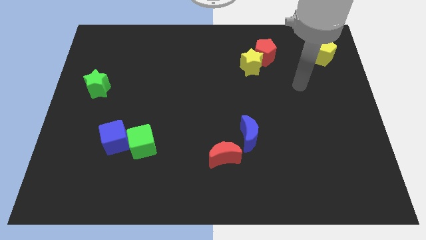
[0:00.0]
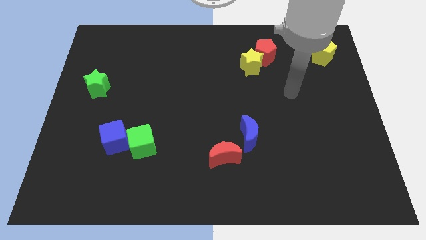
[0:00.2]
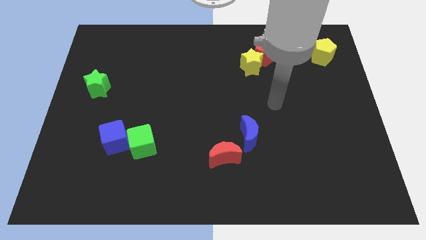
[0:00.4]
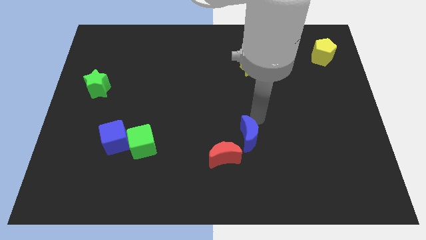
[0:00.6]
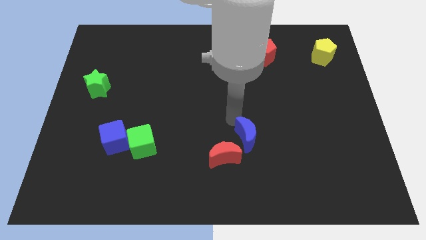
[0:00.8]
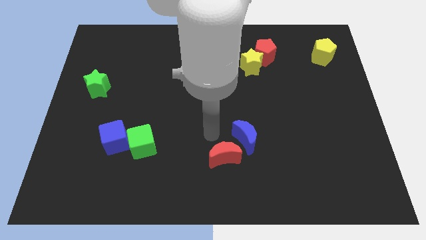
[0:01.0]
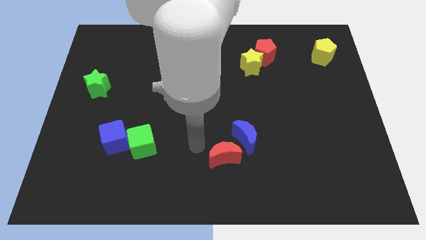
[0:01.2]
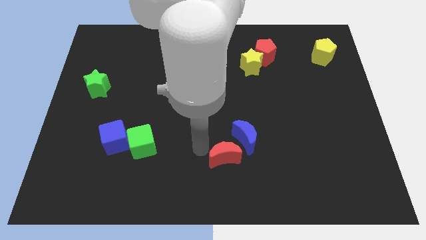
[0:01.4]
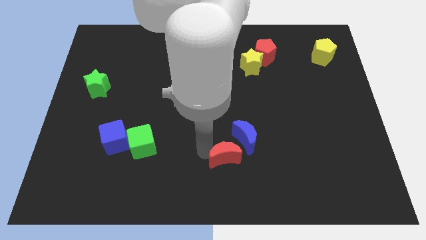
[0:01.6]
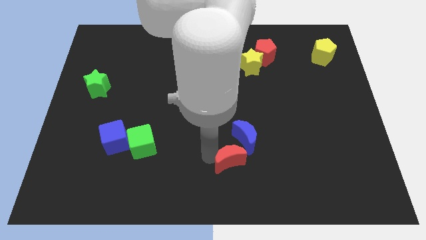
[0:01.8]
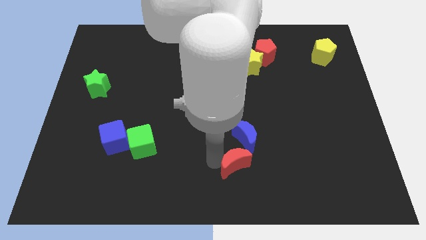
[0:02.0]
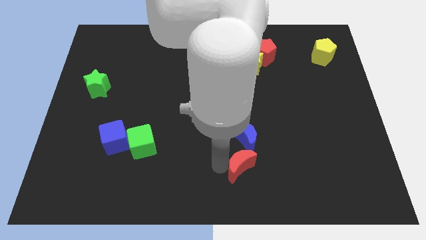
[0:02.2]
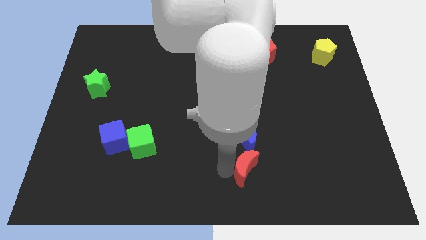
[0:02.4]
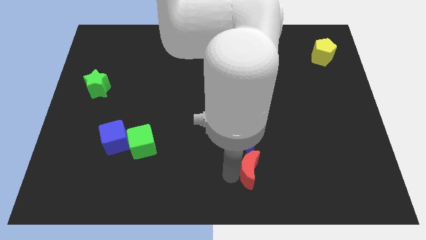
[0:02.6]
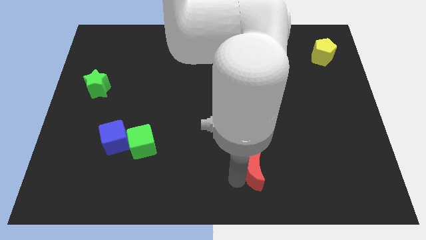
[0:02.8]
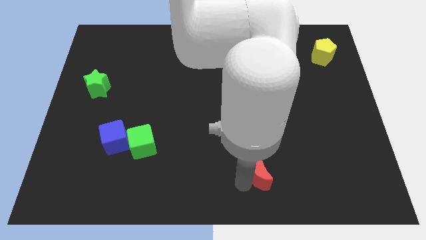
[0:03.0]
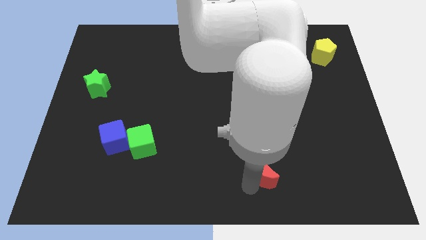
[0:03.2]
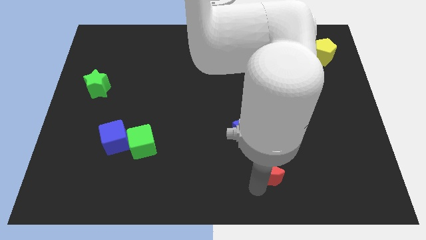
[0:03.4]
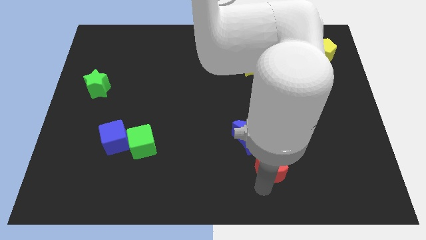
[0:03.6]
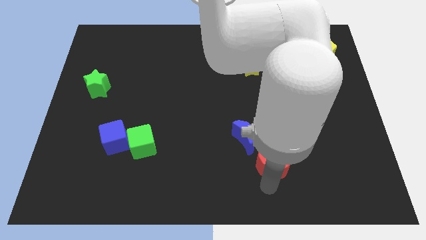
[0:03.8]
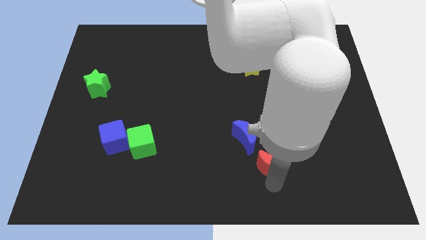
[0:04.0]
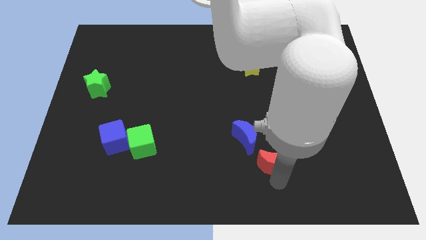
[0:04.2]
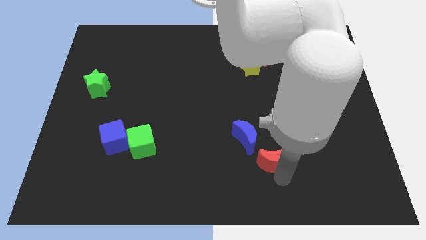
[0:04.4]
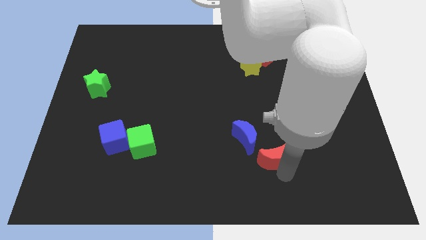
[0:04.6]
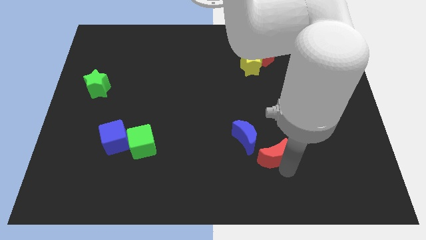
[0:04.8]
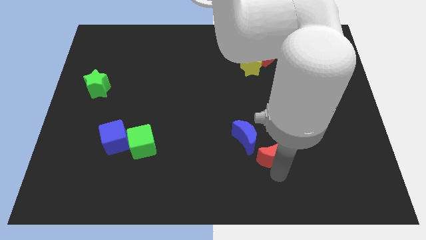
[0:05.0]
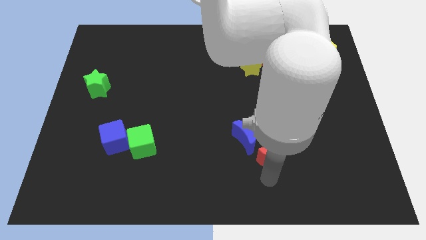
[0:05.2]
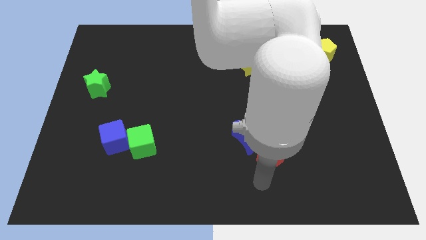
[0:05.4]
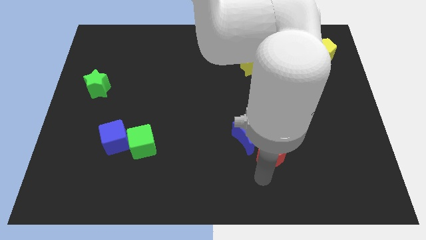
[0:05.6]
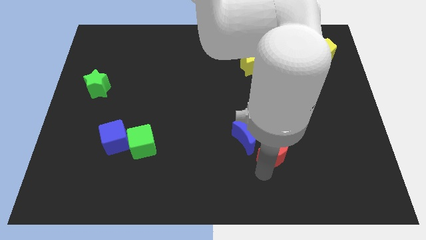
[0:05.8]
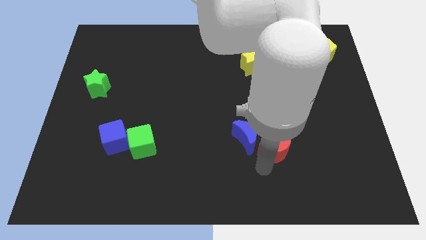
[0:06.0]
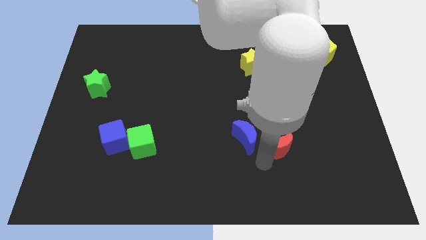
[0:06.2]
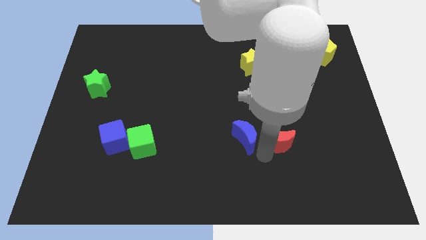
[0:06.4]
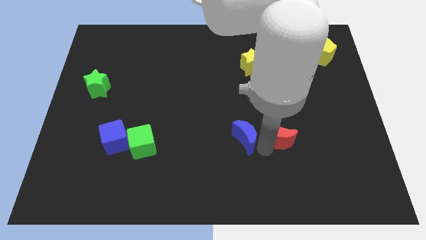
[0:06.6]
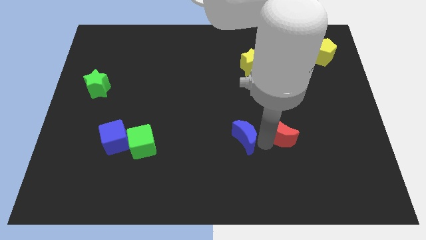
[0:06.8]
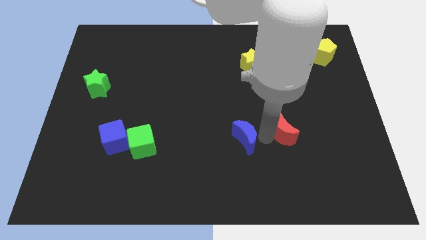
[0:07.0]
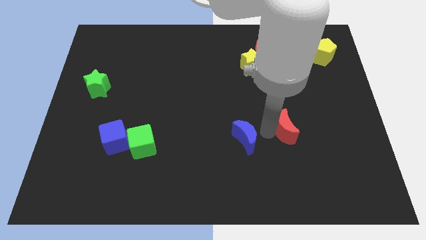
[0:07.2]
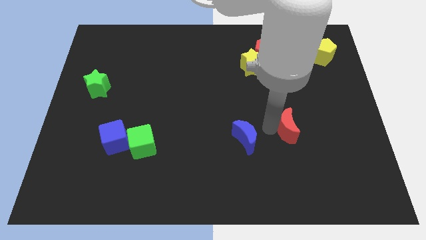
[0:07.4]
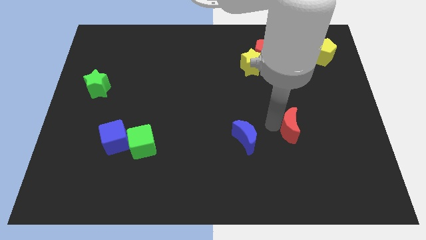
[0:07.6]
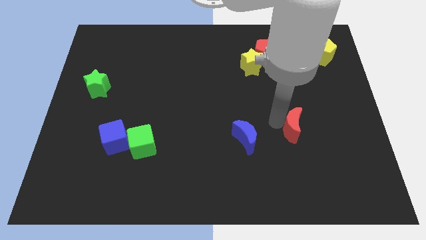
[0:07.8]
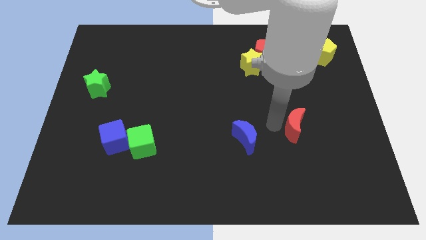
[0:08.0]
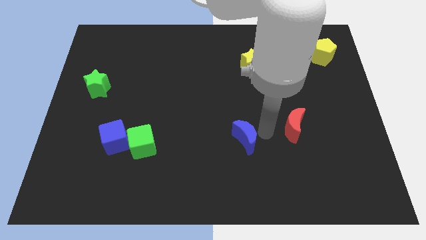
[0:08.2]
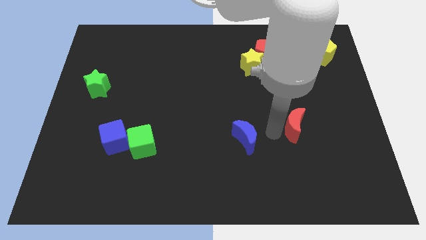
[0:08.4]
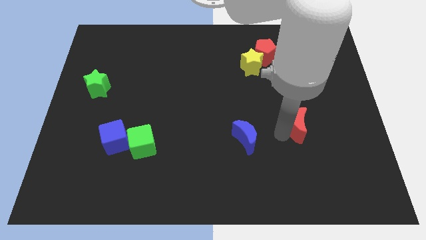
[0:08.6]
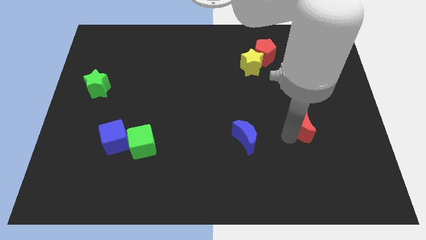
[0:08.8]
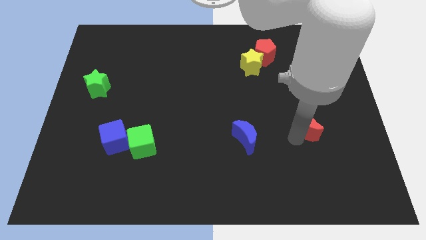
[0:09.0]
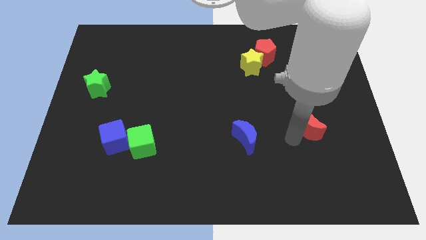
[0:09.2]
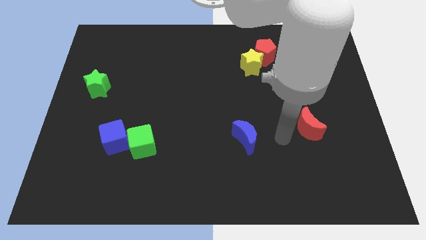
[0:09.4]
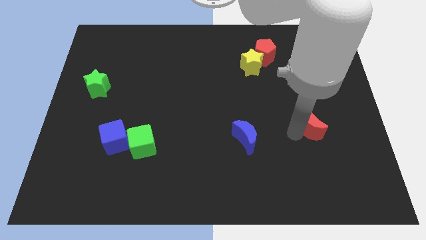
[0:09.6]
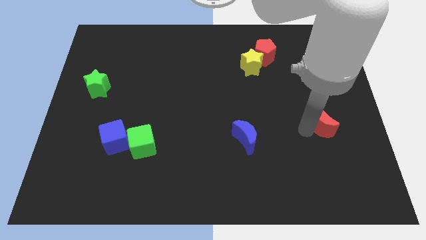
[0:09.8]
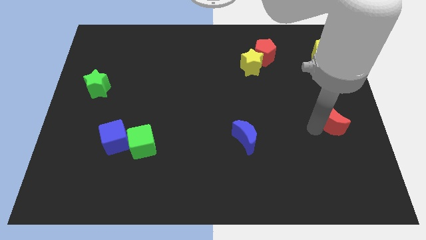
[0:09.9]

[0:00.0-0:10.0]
put the red moon to the right side of the board

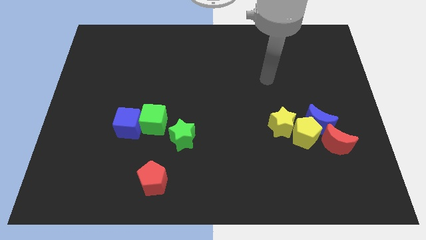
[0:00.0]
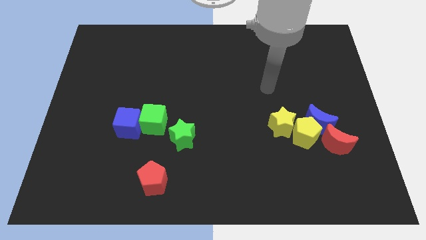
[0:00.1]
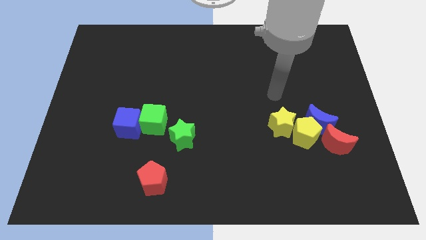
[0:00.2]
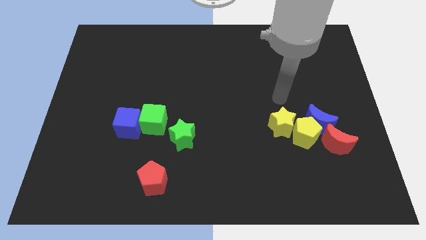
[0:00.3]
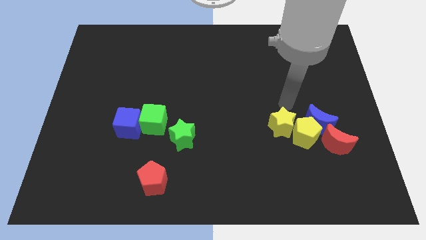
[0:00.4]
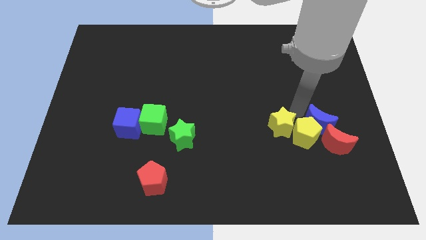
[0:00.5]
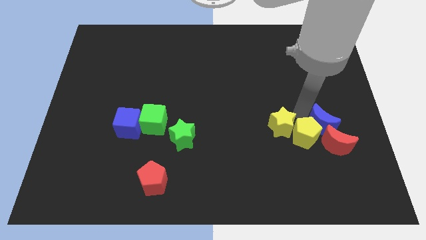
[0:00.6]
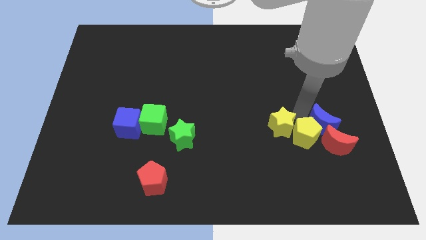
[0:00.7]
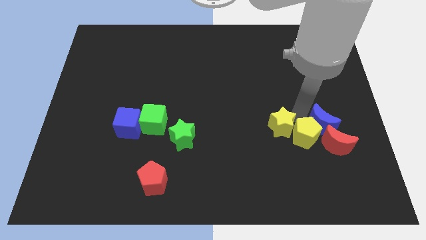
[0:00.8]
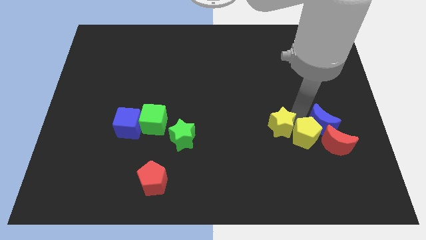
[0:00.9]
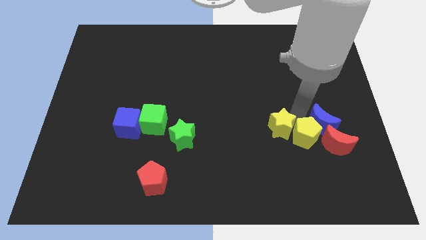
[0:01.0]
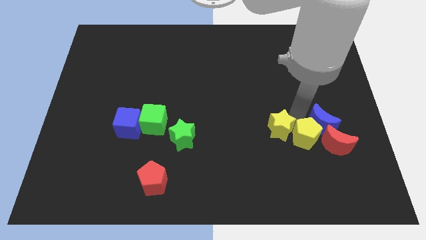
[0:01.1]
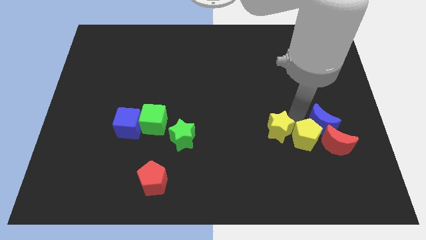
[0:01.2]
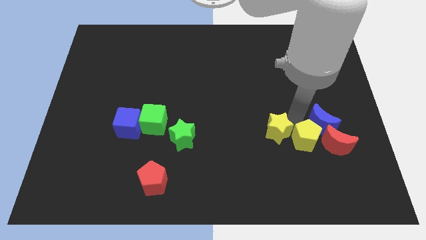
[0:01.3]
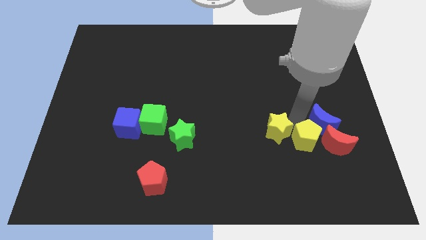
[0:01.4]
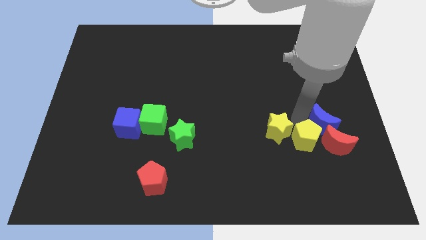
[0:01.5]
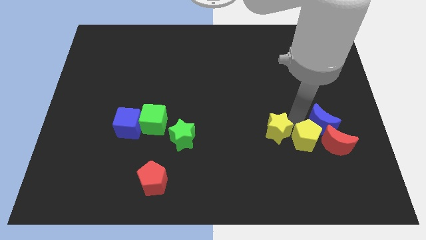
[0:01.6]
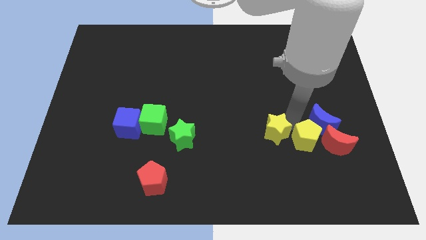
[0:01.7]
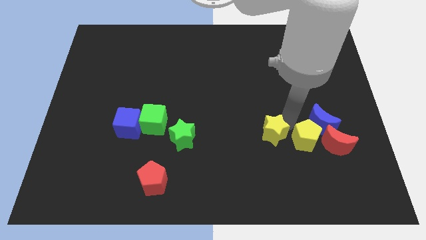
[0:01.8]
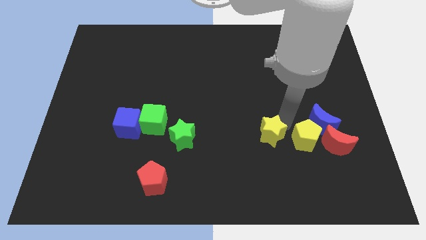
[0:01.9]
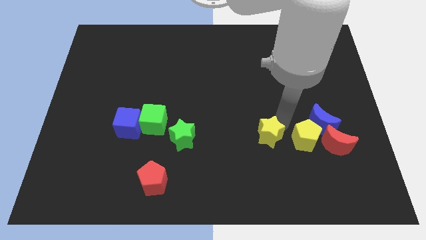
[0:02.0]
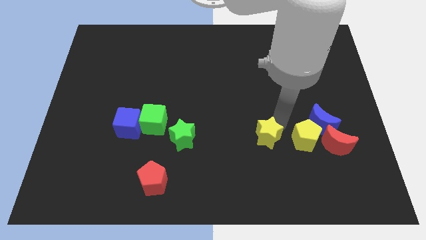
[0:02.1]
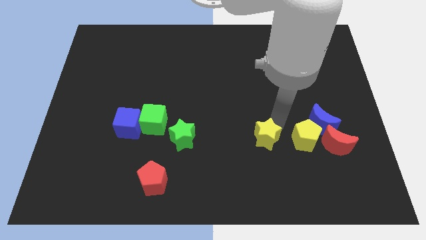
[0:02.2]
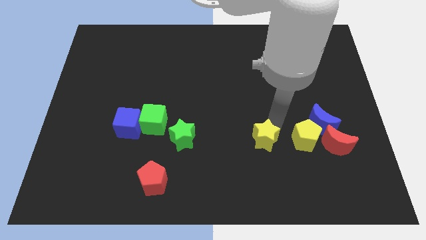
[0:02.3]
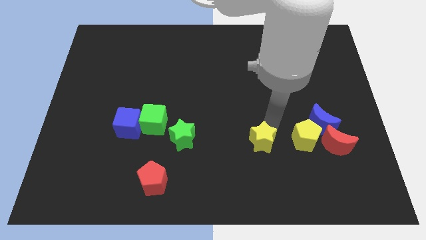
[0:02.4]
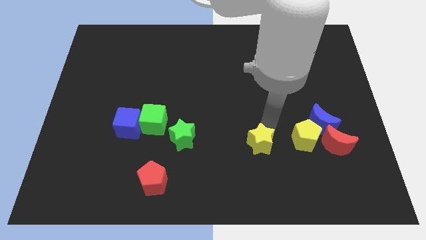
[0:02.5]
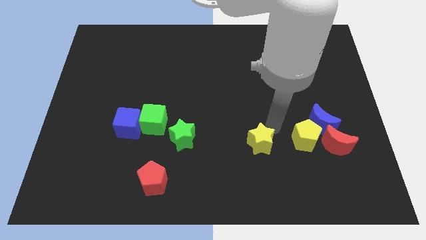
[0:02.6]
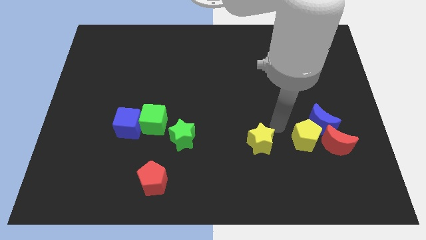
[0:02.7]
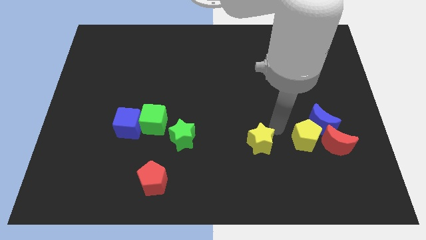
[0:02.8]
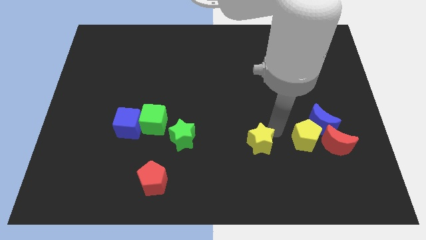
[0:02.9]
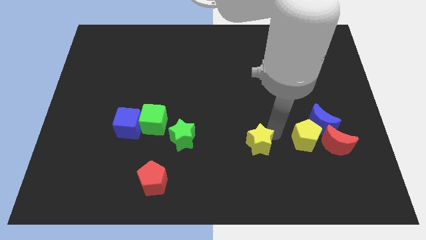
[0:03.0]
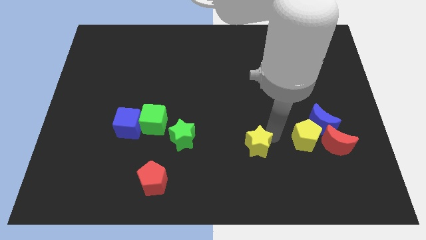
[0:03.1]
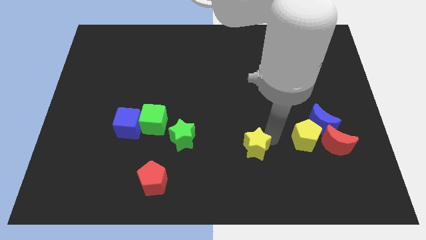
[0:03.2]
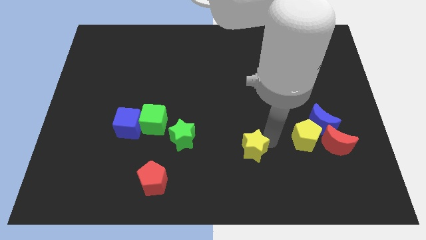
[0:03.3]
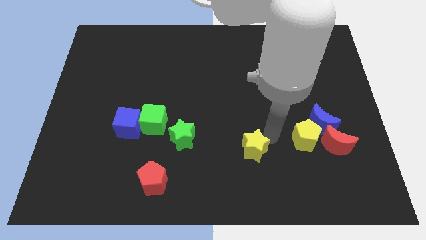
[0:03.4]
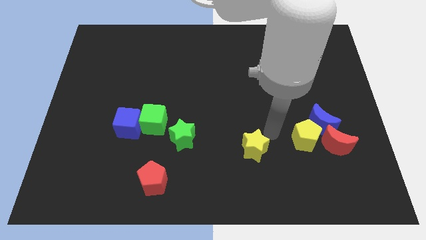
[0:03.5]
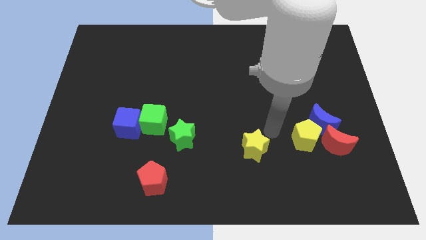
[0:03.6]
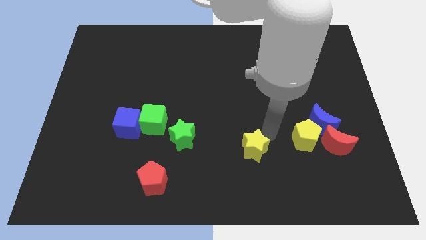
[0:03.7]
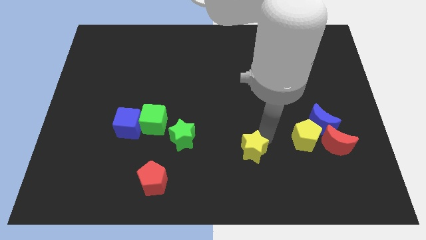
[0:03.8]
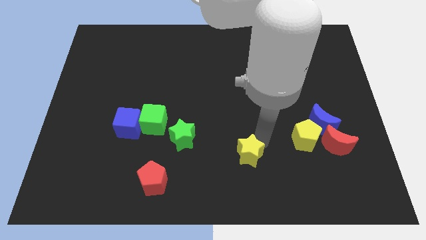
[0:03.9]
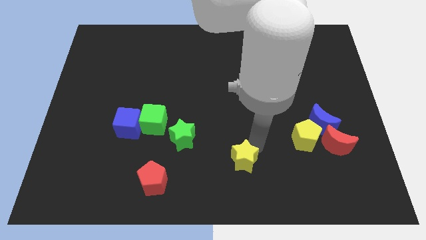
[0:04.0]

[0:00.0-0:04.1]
push the yellow star to the bottom side
